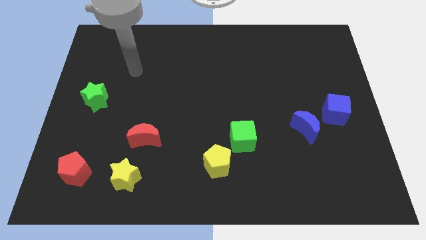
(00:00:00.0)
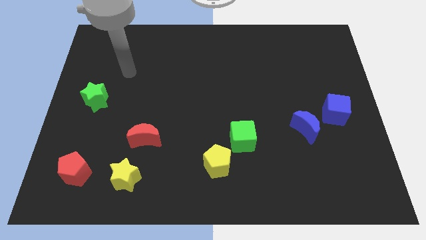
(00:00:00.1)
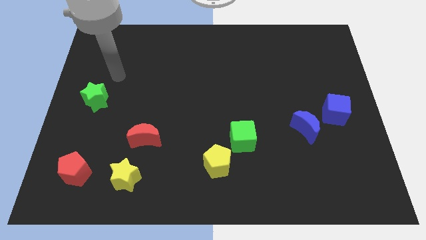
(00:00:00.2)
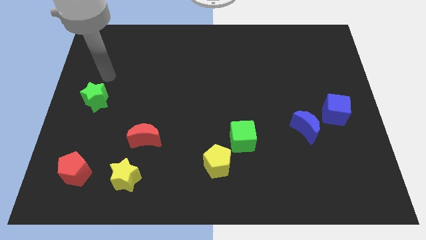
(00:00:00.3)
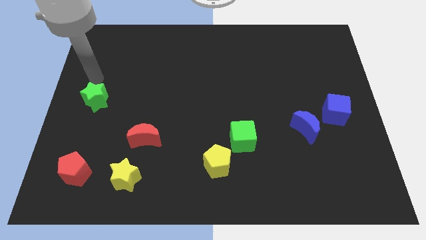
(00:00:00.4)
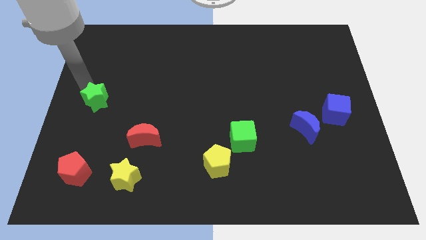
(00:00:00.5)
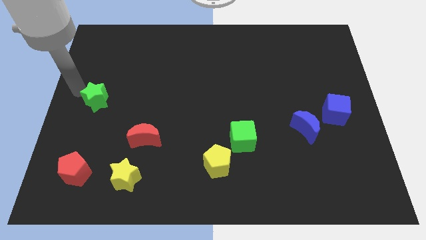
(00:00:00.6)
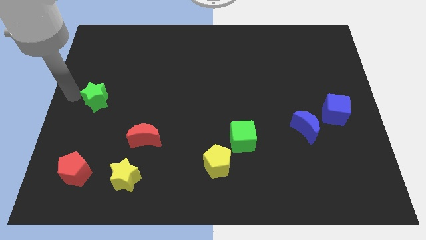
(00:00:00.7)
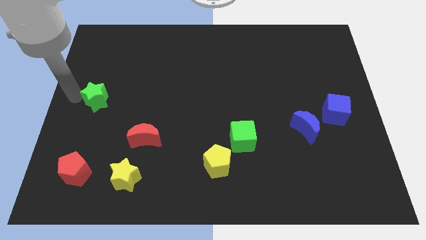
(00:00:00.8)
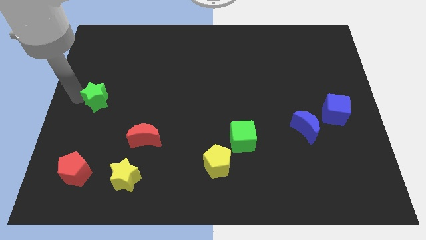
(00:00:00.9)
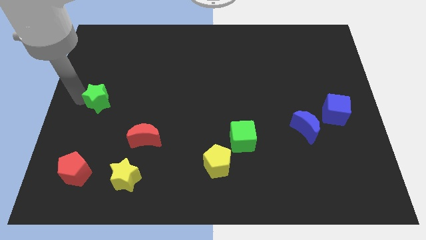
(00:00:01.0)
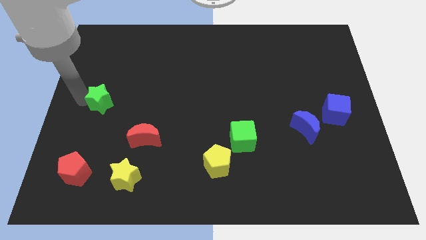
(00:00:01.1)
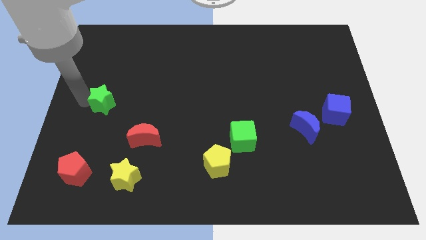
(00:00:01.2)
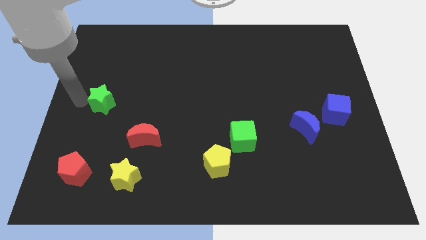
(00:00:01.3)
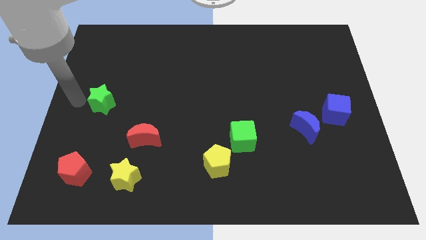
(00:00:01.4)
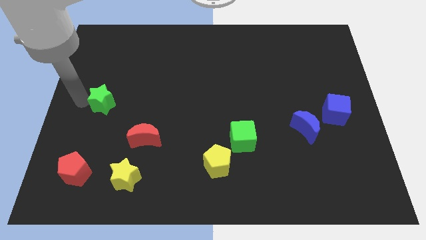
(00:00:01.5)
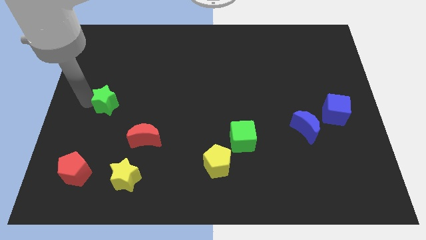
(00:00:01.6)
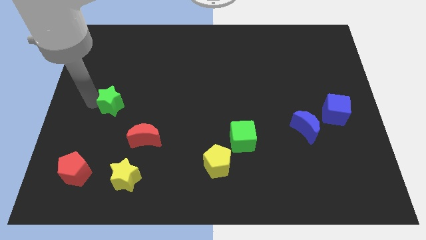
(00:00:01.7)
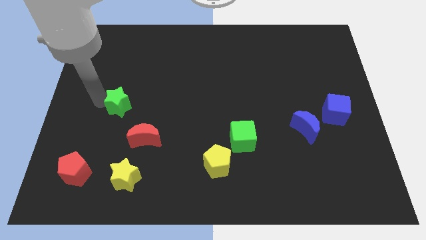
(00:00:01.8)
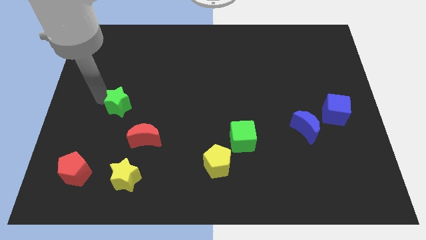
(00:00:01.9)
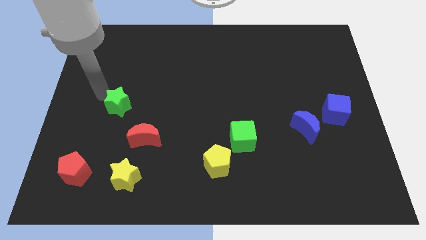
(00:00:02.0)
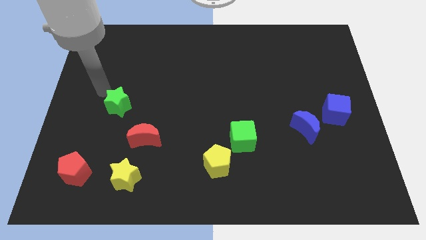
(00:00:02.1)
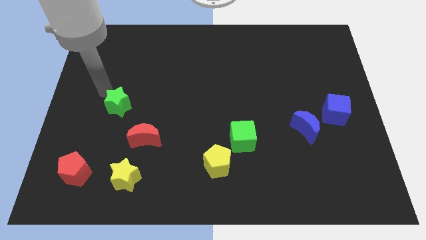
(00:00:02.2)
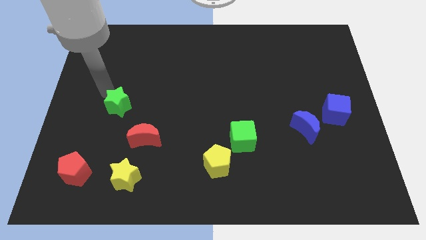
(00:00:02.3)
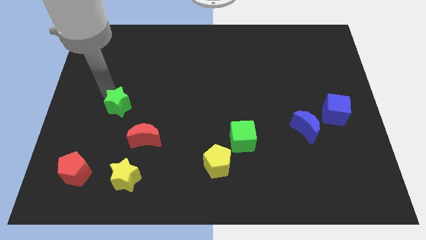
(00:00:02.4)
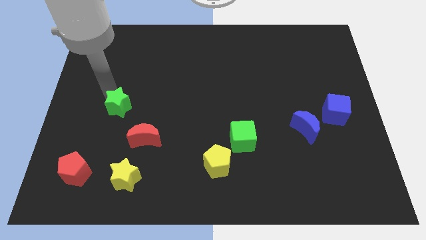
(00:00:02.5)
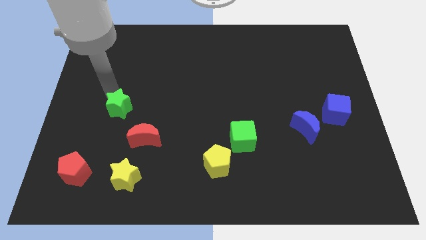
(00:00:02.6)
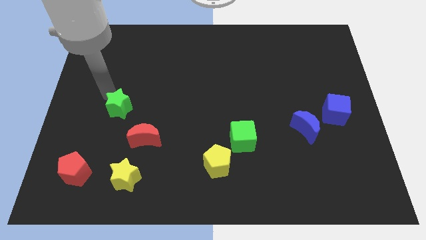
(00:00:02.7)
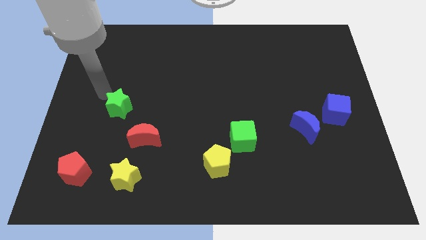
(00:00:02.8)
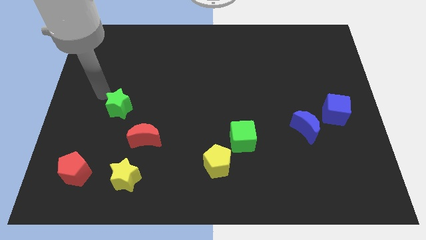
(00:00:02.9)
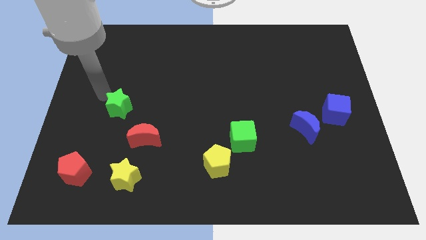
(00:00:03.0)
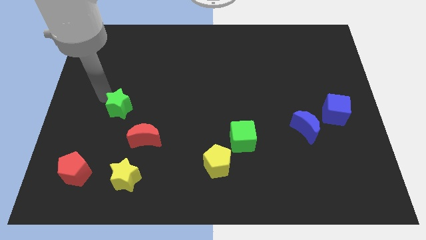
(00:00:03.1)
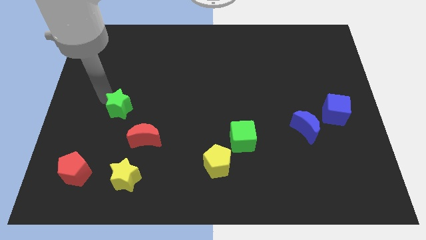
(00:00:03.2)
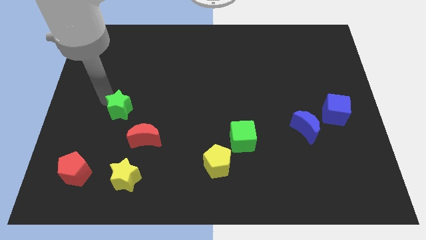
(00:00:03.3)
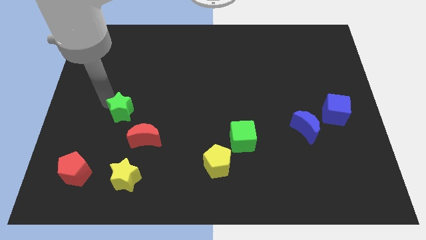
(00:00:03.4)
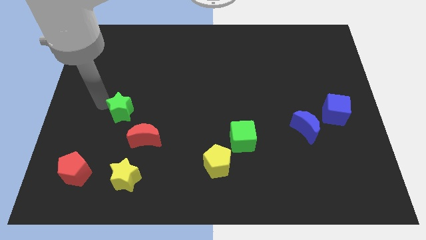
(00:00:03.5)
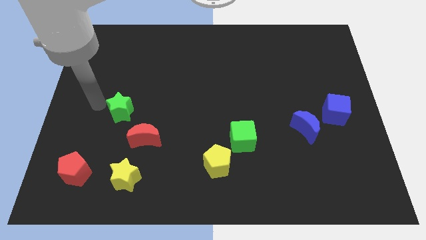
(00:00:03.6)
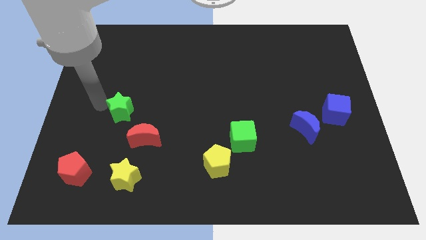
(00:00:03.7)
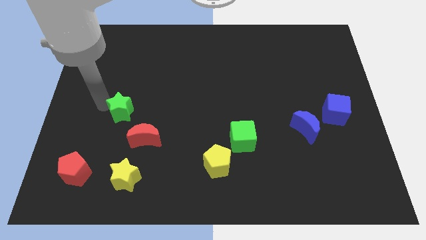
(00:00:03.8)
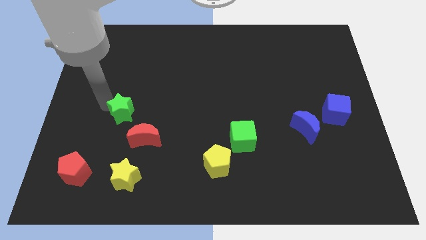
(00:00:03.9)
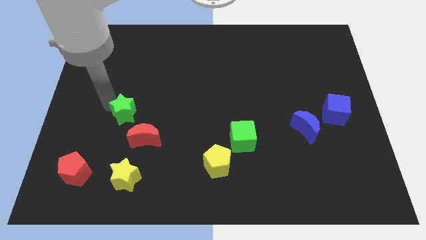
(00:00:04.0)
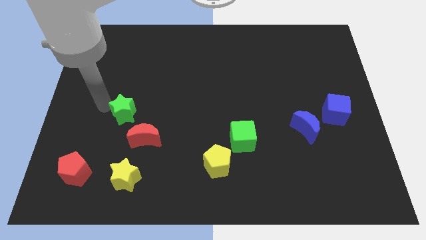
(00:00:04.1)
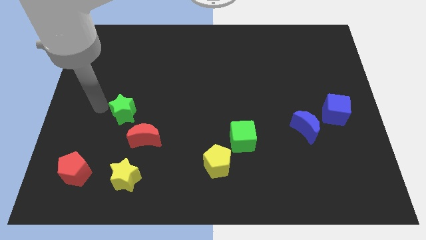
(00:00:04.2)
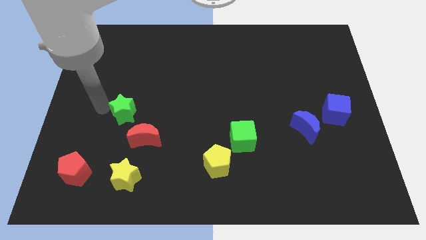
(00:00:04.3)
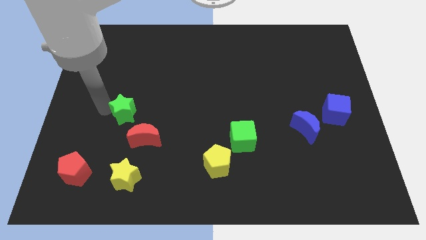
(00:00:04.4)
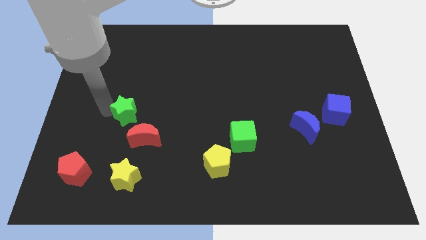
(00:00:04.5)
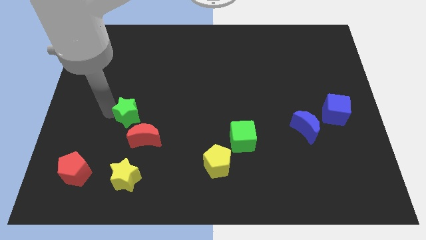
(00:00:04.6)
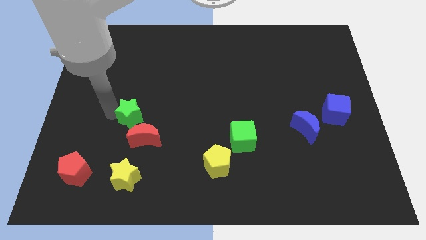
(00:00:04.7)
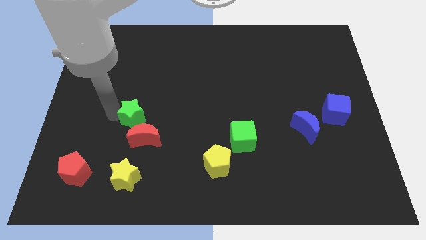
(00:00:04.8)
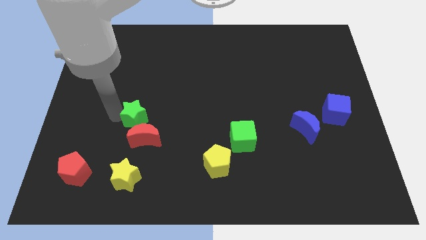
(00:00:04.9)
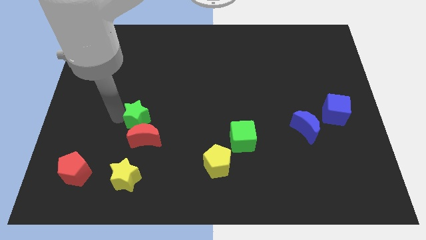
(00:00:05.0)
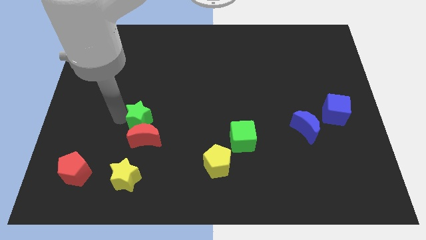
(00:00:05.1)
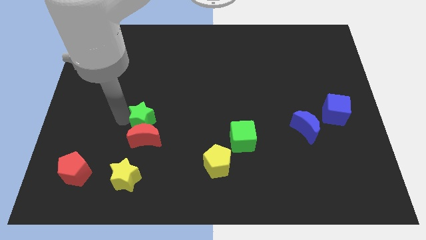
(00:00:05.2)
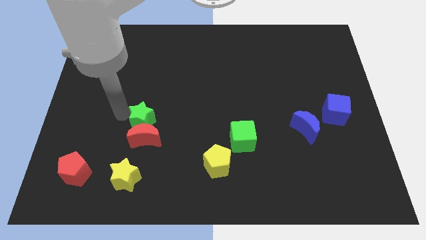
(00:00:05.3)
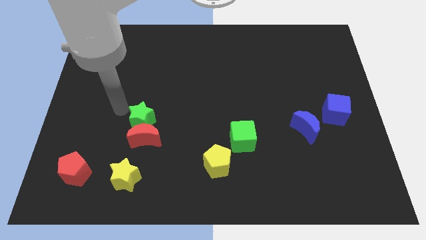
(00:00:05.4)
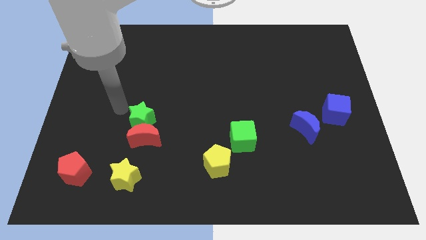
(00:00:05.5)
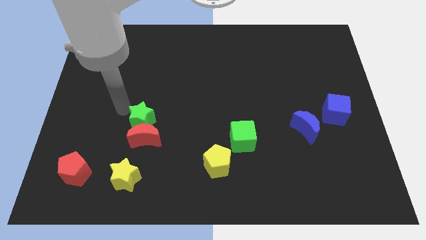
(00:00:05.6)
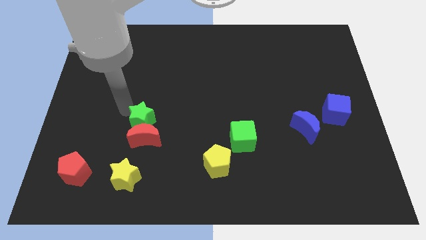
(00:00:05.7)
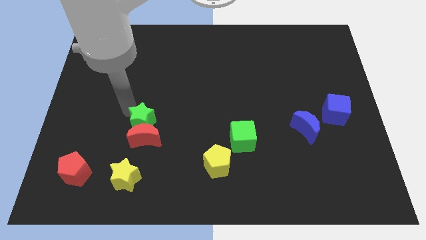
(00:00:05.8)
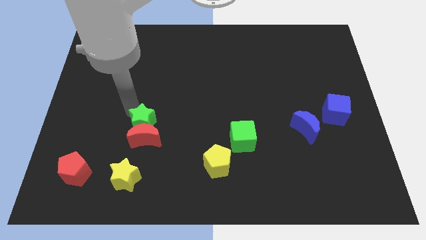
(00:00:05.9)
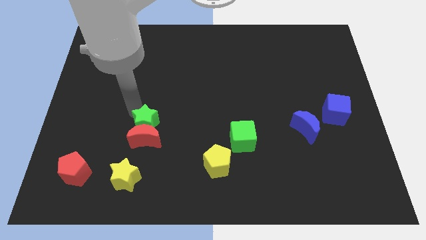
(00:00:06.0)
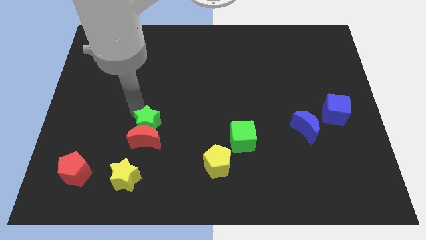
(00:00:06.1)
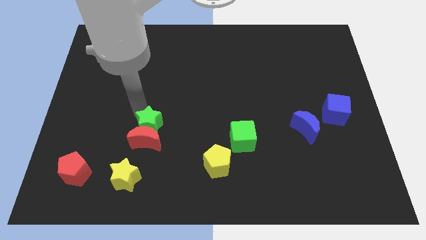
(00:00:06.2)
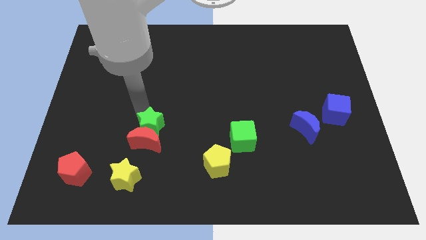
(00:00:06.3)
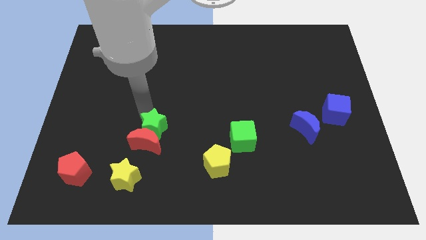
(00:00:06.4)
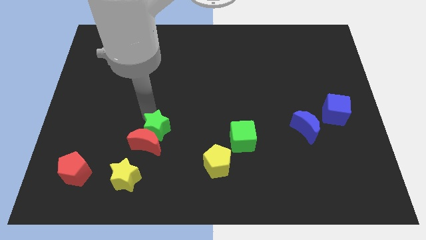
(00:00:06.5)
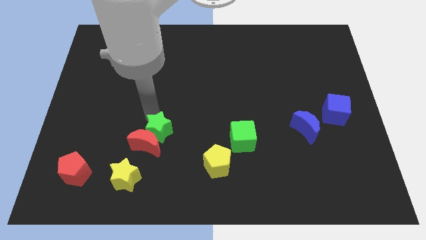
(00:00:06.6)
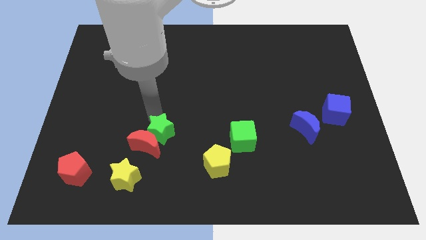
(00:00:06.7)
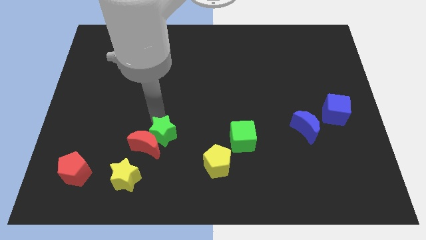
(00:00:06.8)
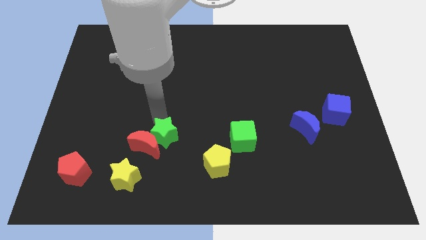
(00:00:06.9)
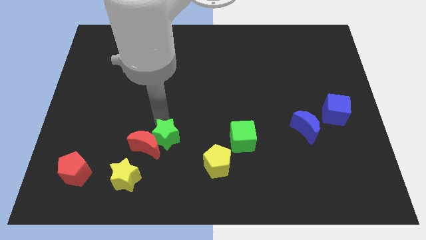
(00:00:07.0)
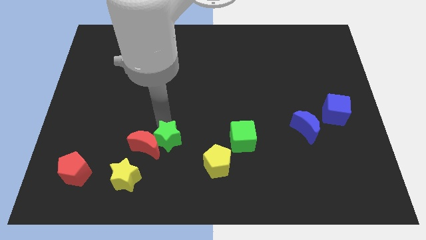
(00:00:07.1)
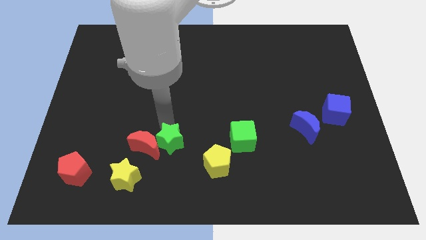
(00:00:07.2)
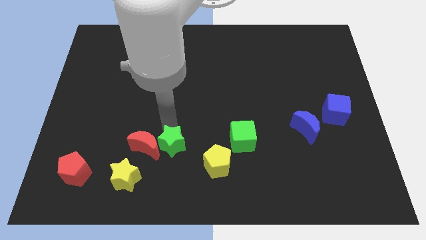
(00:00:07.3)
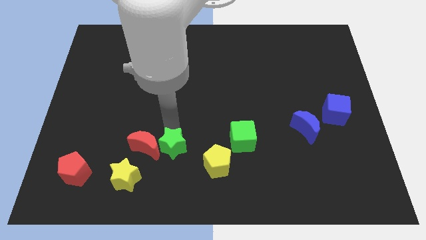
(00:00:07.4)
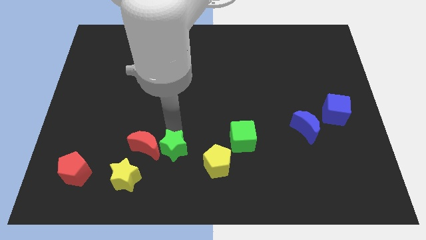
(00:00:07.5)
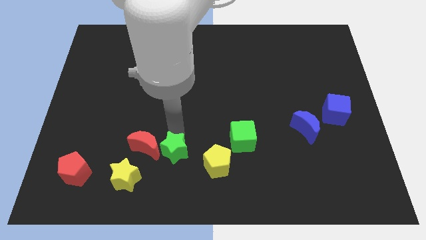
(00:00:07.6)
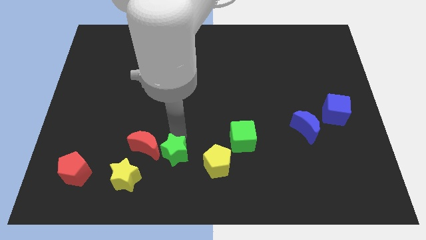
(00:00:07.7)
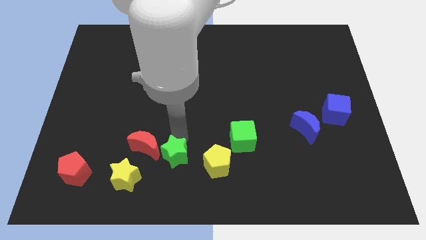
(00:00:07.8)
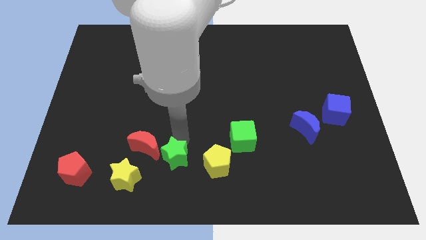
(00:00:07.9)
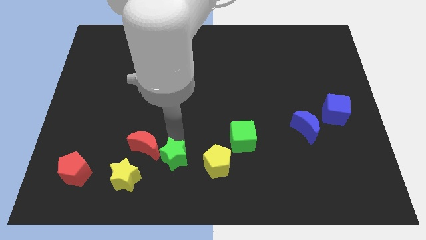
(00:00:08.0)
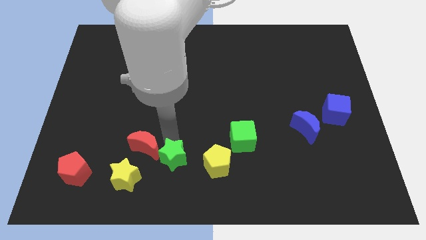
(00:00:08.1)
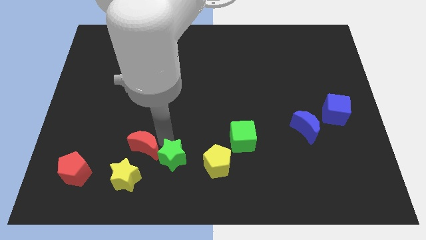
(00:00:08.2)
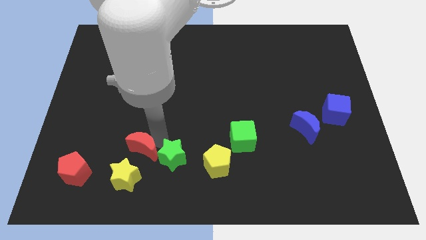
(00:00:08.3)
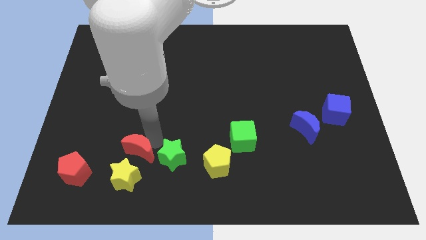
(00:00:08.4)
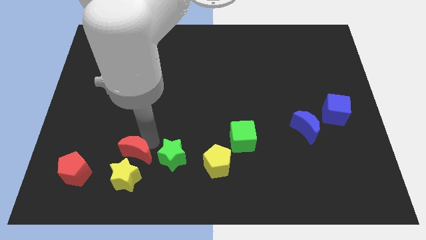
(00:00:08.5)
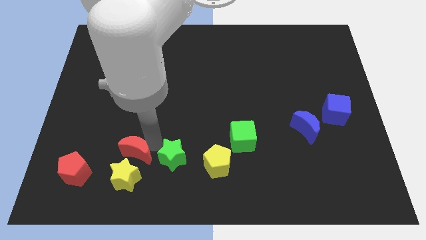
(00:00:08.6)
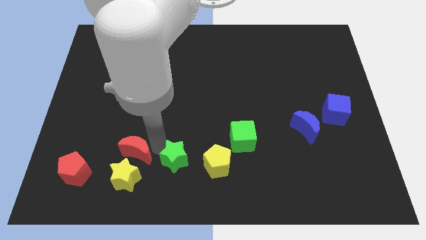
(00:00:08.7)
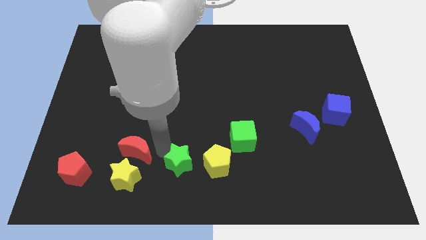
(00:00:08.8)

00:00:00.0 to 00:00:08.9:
put the green star to the bottom side
